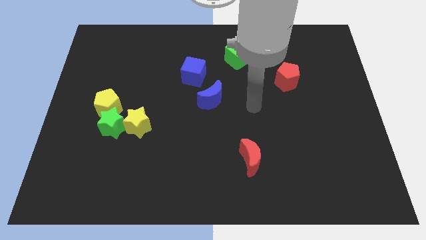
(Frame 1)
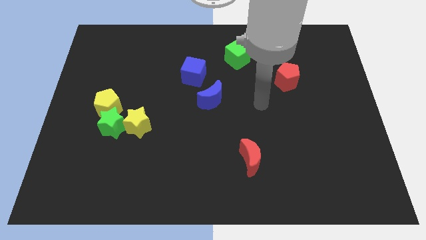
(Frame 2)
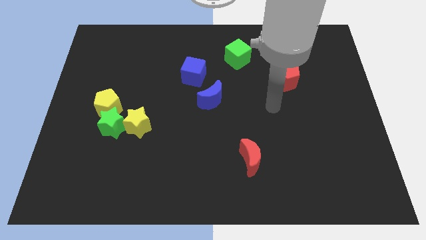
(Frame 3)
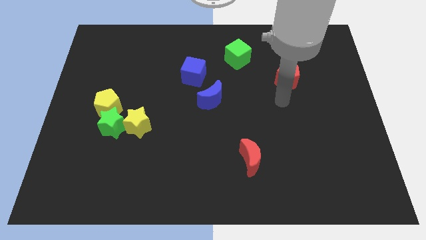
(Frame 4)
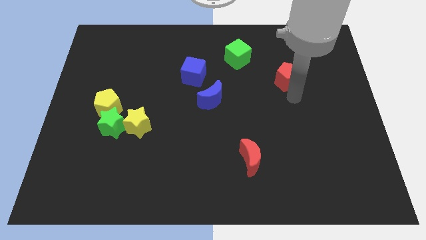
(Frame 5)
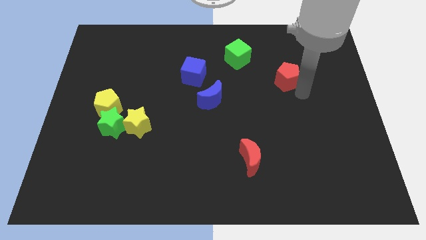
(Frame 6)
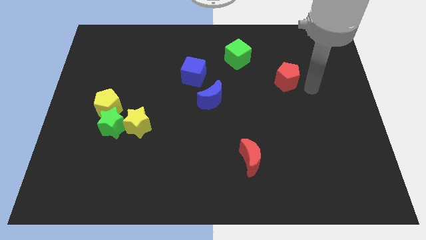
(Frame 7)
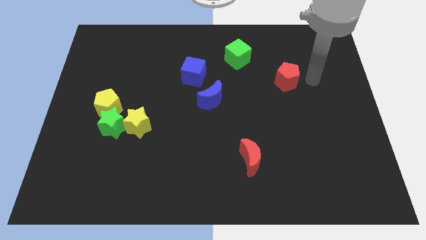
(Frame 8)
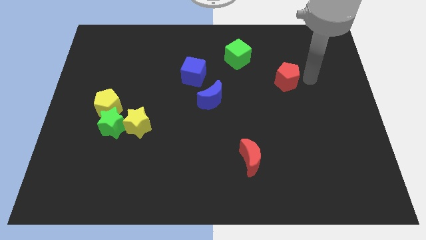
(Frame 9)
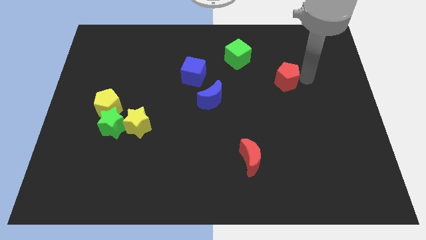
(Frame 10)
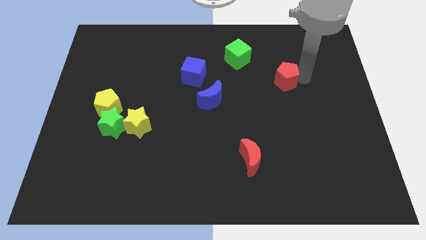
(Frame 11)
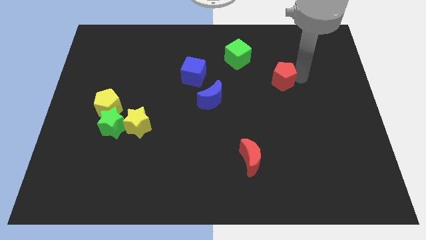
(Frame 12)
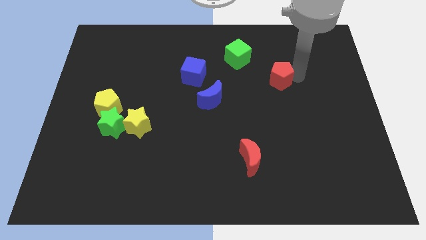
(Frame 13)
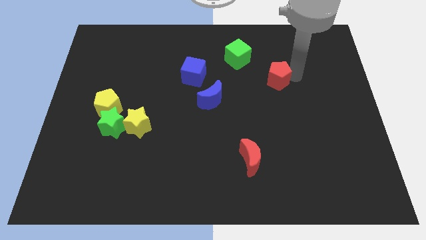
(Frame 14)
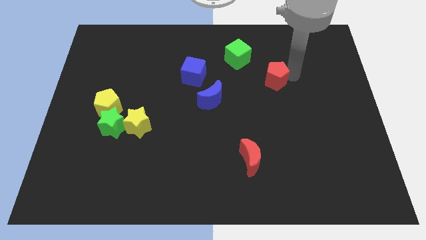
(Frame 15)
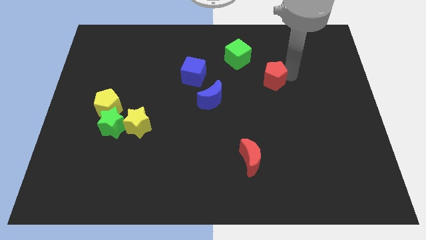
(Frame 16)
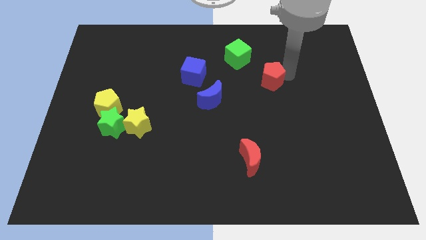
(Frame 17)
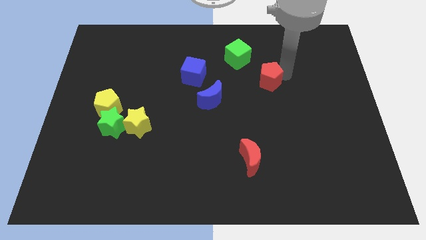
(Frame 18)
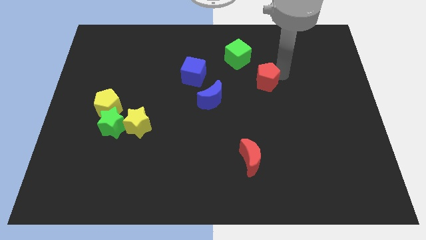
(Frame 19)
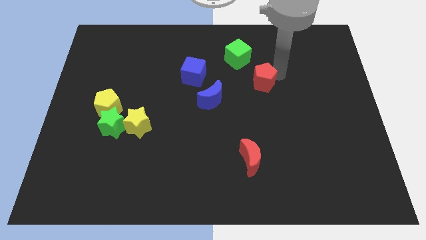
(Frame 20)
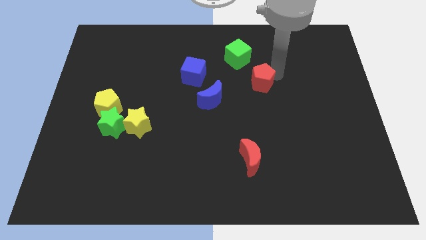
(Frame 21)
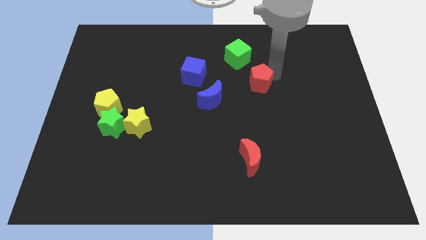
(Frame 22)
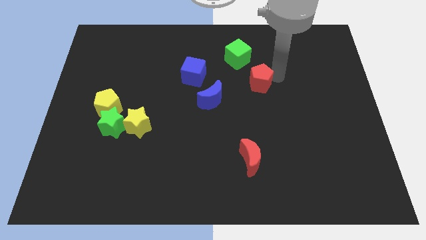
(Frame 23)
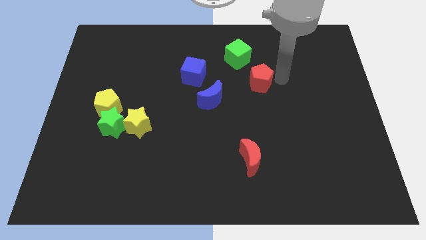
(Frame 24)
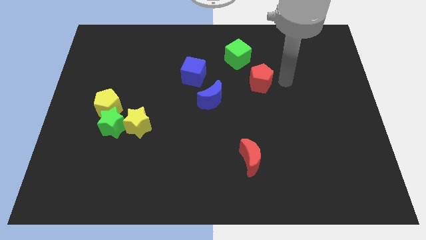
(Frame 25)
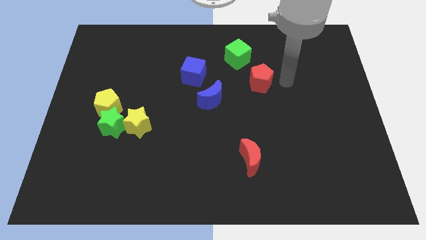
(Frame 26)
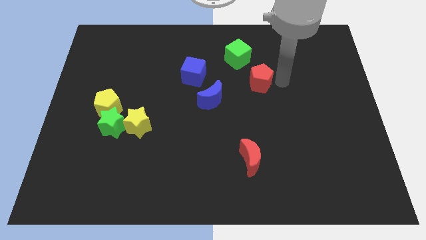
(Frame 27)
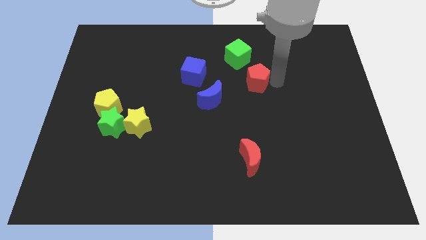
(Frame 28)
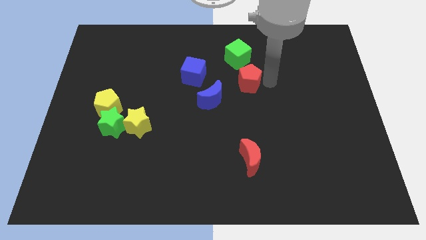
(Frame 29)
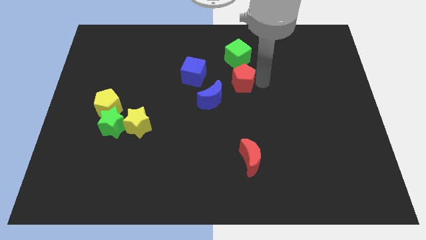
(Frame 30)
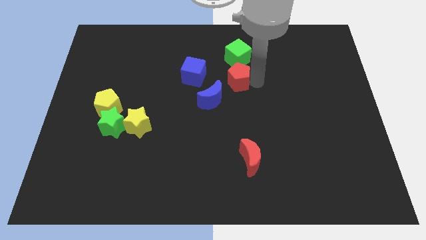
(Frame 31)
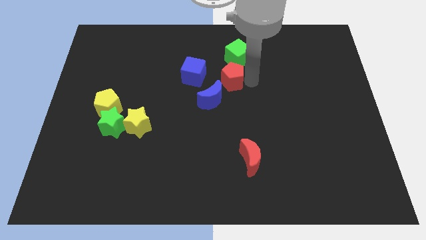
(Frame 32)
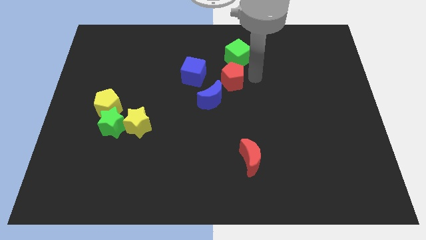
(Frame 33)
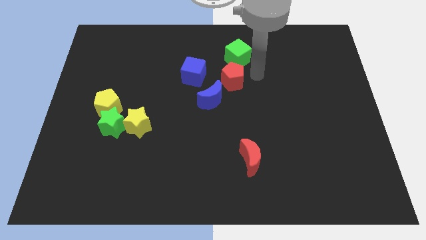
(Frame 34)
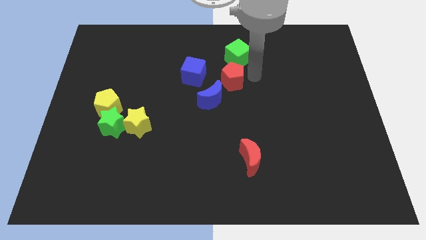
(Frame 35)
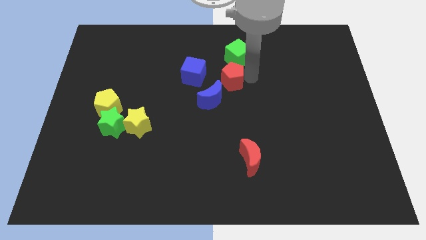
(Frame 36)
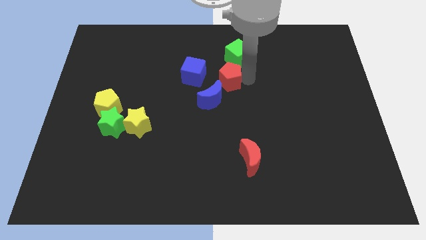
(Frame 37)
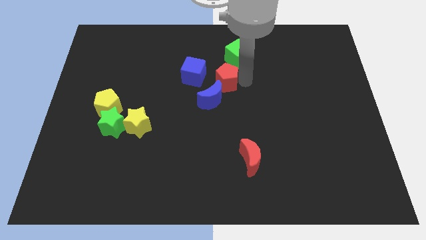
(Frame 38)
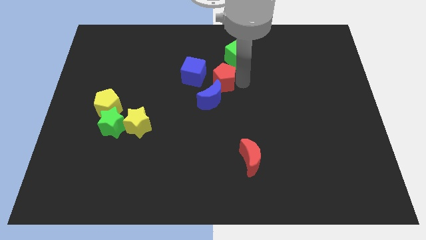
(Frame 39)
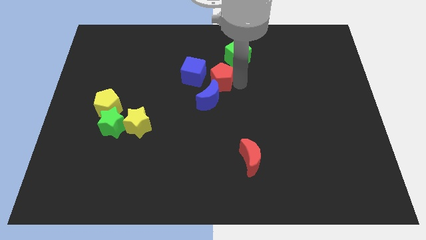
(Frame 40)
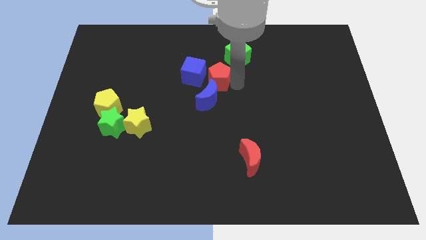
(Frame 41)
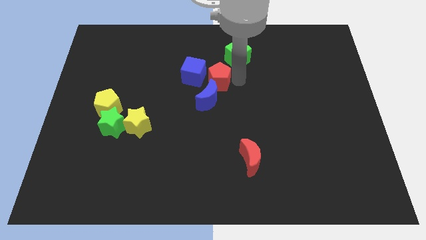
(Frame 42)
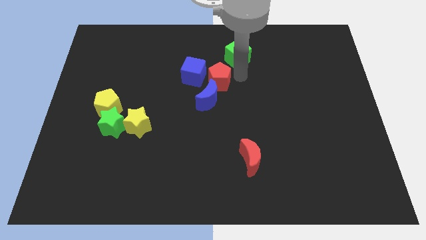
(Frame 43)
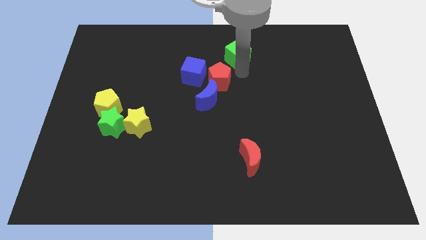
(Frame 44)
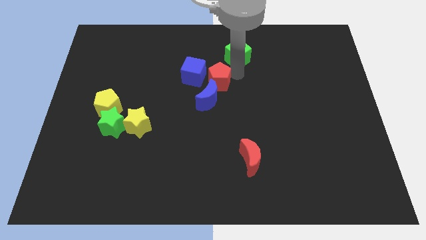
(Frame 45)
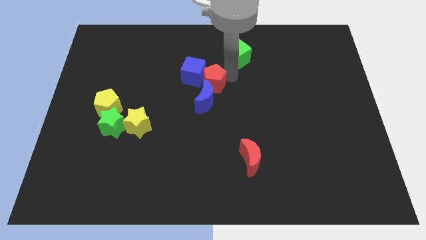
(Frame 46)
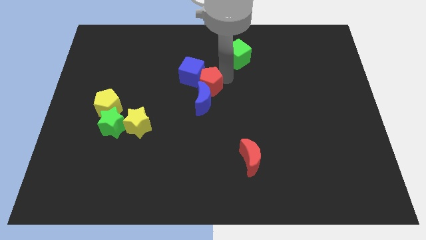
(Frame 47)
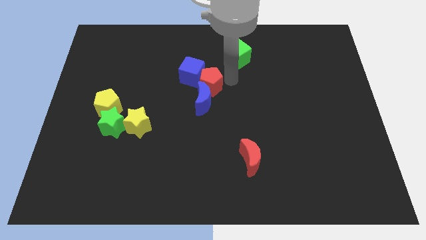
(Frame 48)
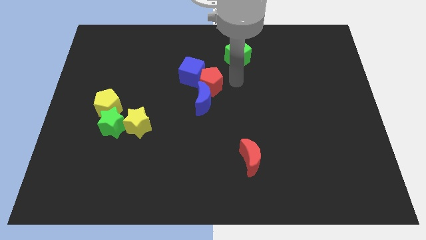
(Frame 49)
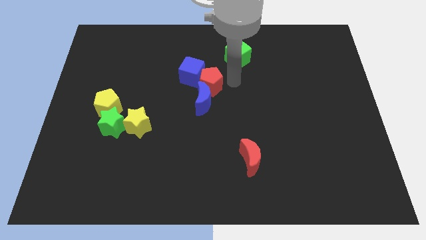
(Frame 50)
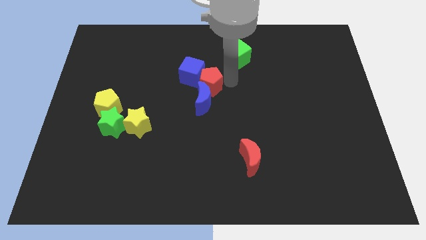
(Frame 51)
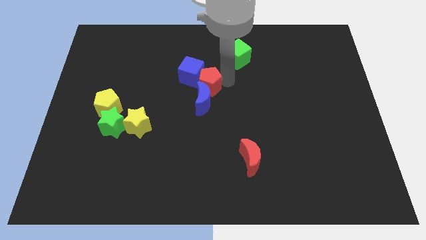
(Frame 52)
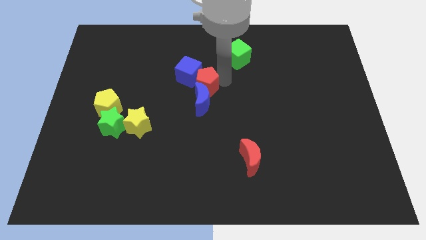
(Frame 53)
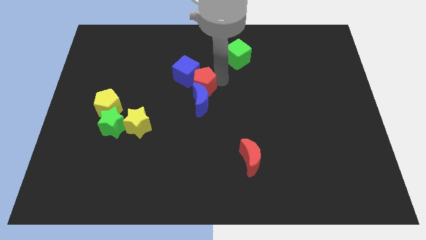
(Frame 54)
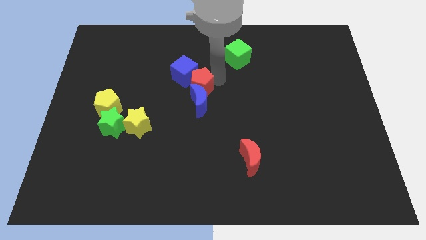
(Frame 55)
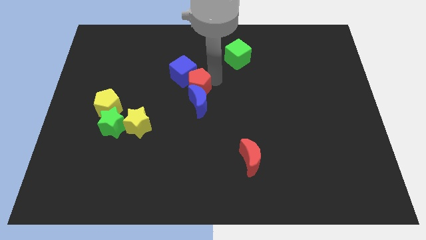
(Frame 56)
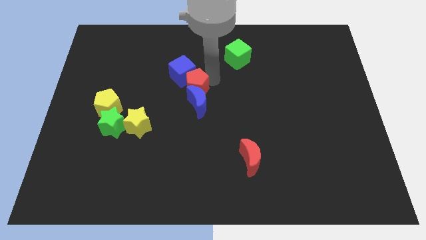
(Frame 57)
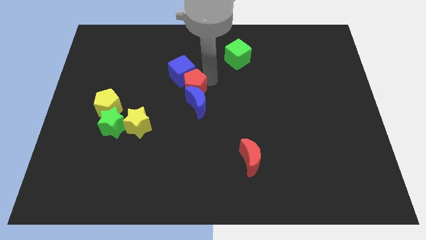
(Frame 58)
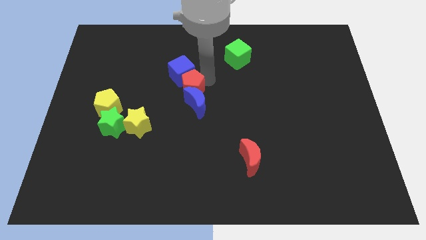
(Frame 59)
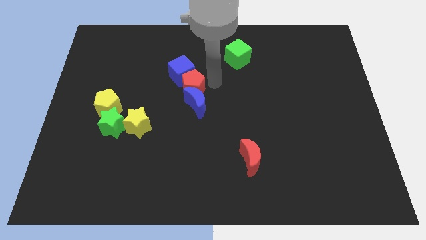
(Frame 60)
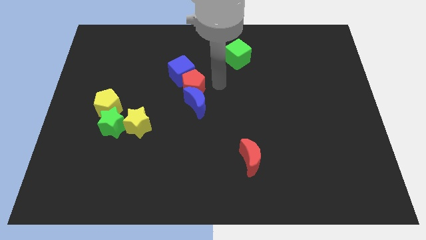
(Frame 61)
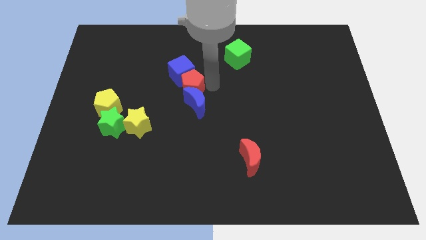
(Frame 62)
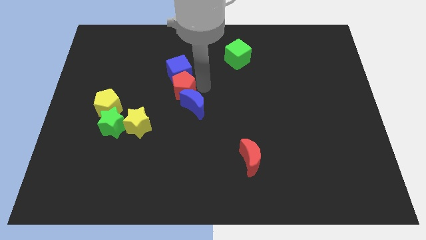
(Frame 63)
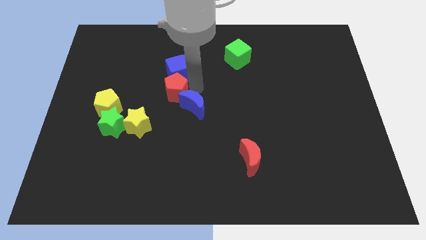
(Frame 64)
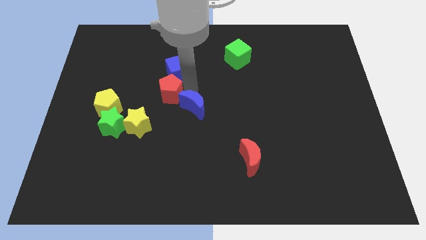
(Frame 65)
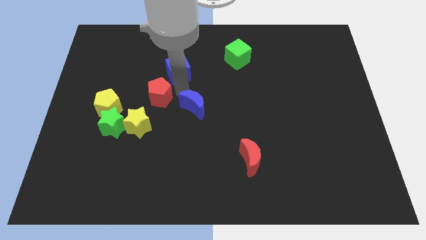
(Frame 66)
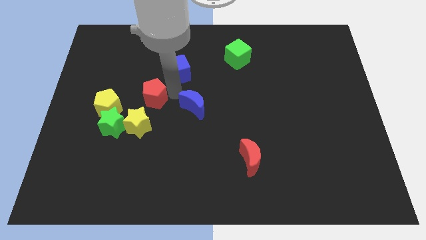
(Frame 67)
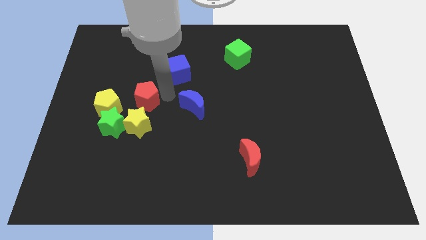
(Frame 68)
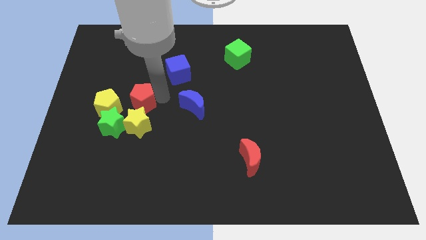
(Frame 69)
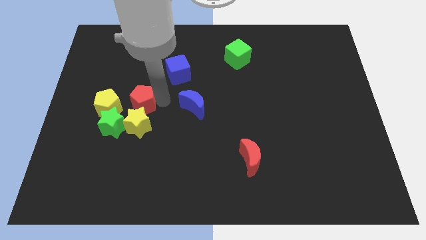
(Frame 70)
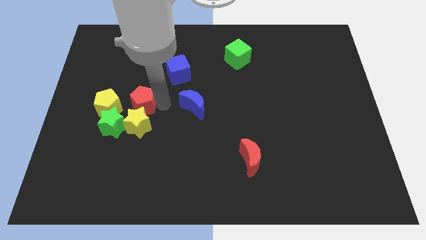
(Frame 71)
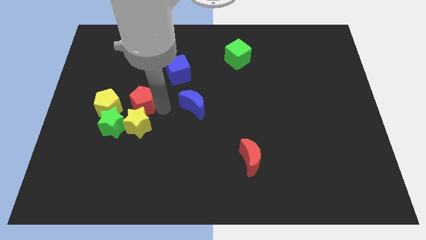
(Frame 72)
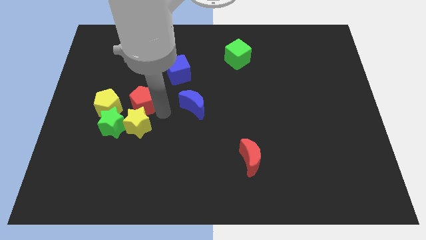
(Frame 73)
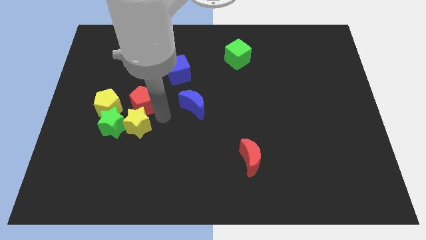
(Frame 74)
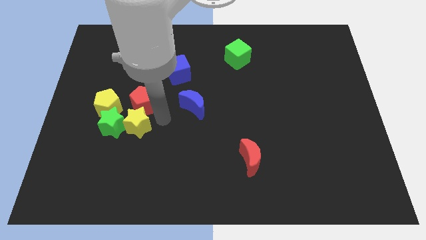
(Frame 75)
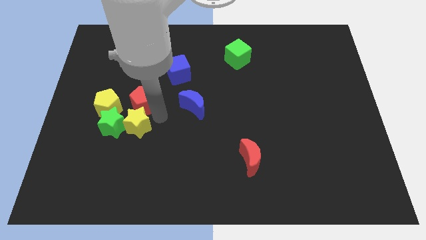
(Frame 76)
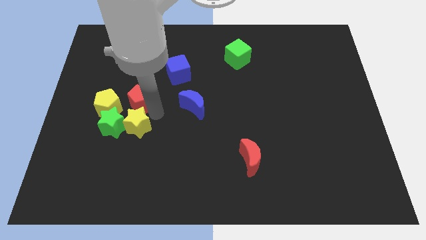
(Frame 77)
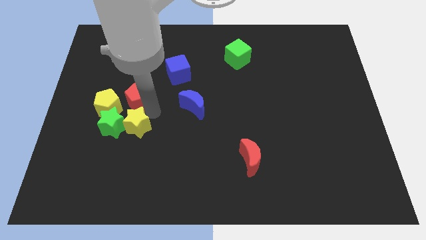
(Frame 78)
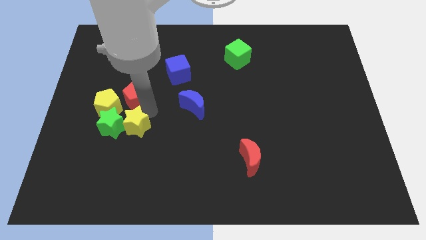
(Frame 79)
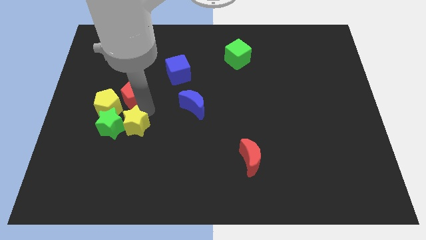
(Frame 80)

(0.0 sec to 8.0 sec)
move the red pentagon close to the yellow pentagon
